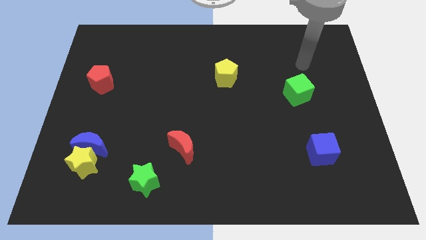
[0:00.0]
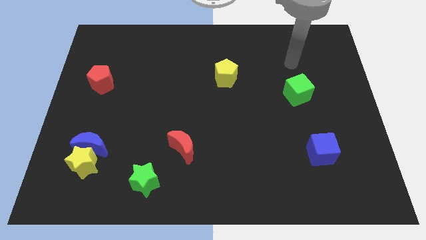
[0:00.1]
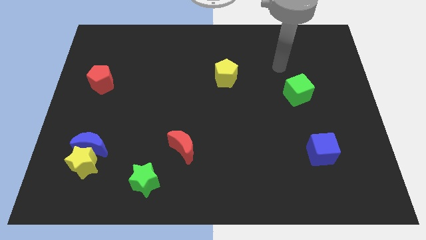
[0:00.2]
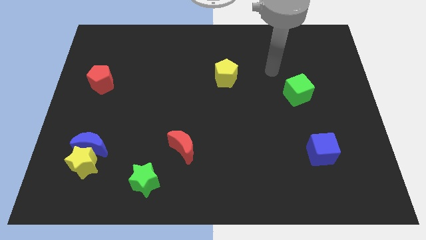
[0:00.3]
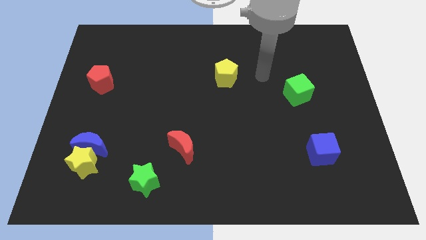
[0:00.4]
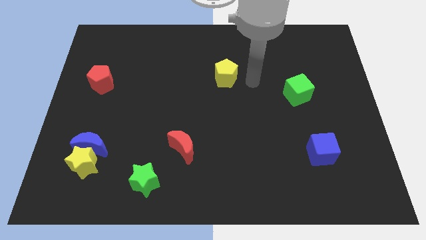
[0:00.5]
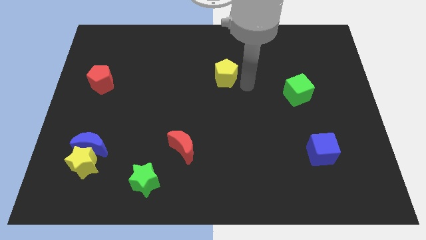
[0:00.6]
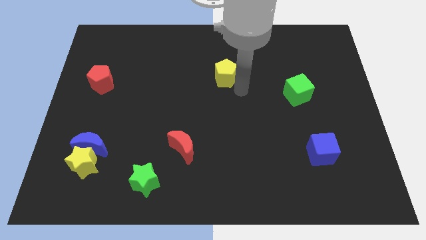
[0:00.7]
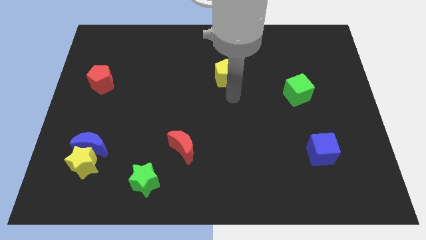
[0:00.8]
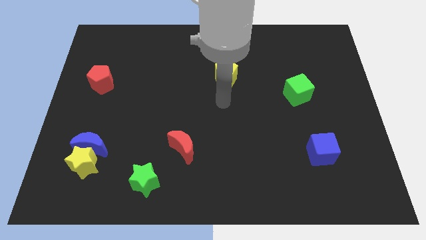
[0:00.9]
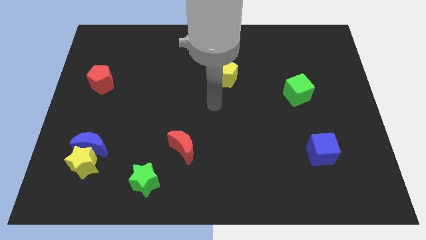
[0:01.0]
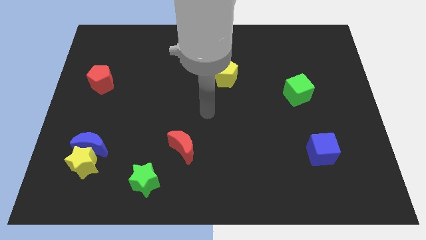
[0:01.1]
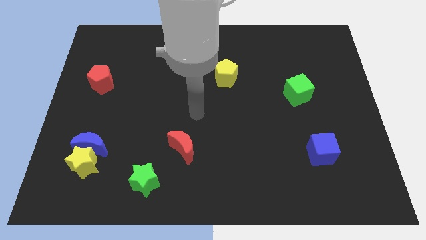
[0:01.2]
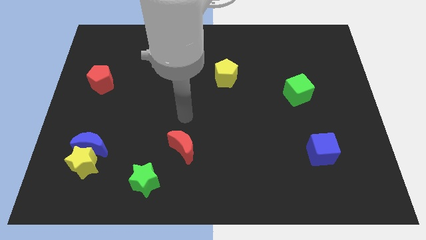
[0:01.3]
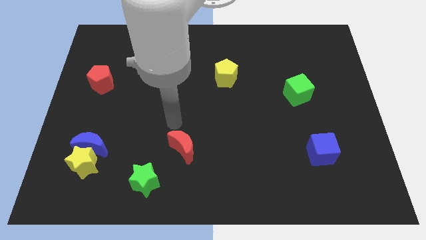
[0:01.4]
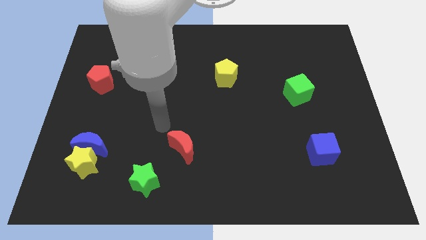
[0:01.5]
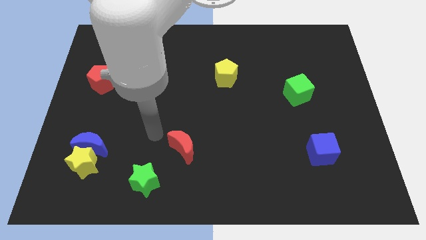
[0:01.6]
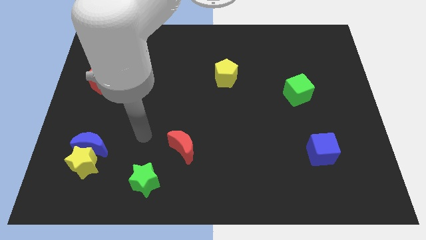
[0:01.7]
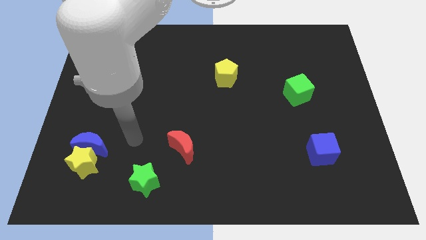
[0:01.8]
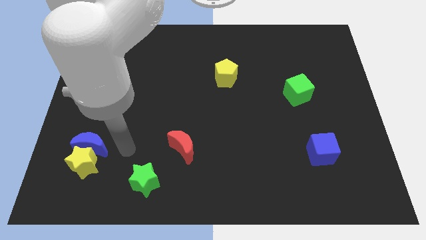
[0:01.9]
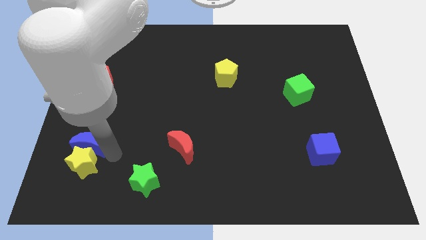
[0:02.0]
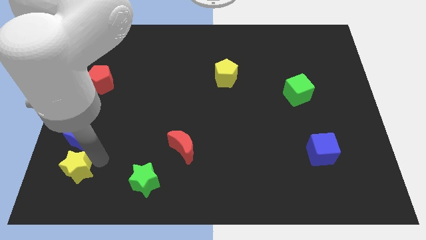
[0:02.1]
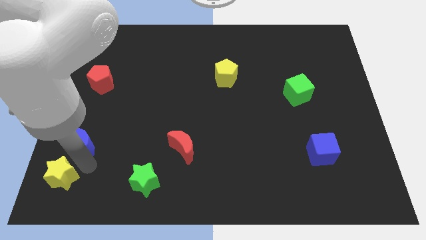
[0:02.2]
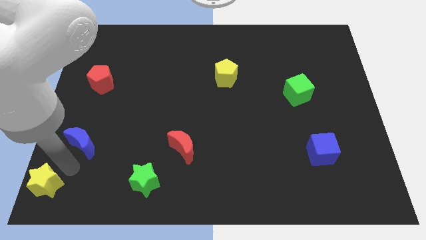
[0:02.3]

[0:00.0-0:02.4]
pull the blue moon apart from the yellow star

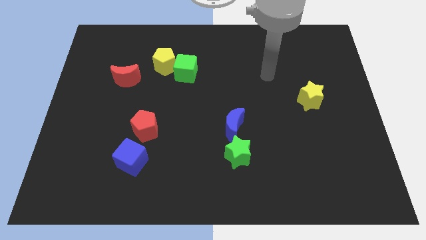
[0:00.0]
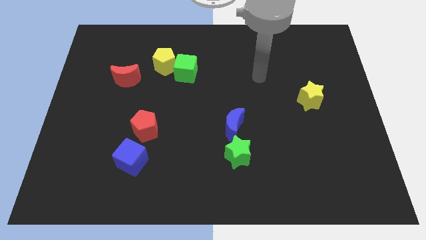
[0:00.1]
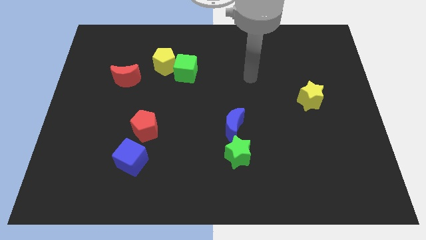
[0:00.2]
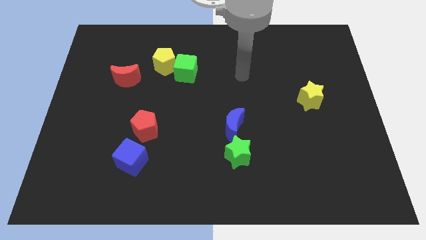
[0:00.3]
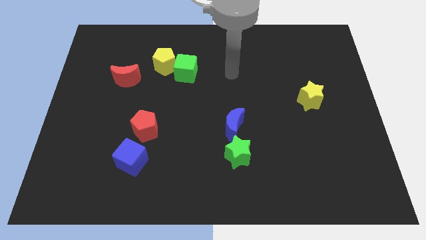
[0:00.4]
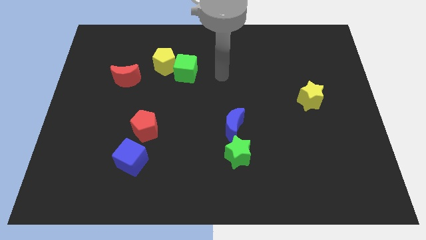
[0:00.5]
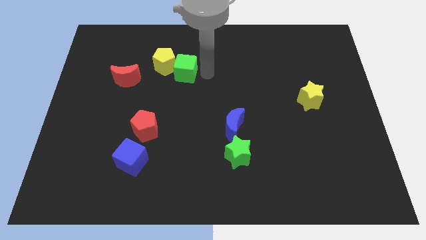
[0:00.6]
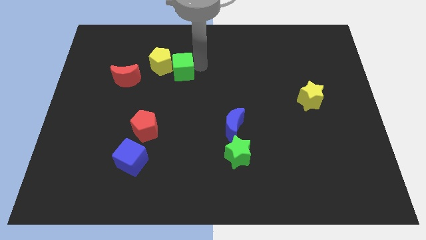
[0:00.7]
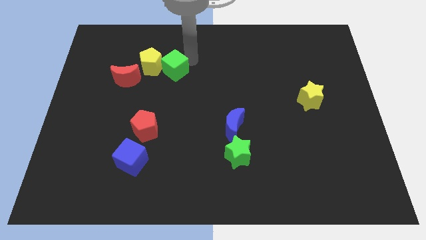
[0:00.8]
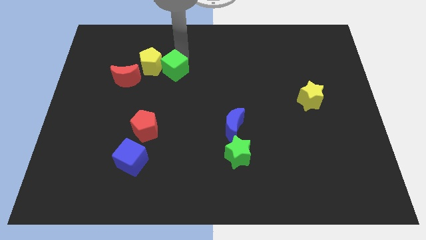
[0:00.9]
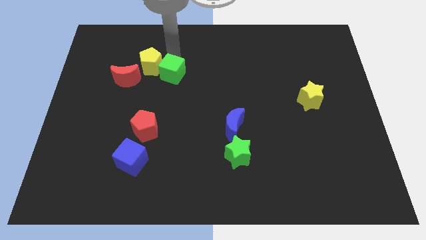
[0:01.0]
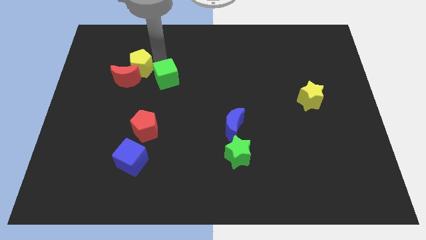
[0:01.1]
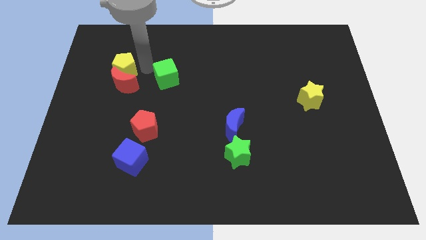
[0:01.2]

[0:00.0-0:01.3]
move the green cube away from the yellow pentagon

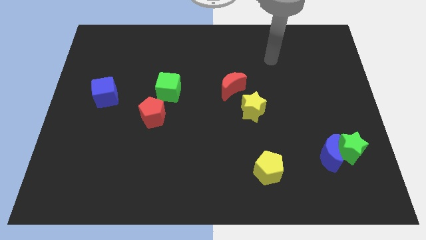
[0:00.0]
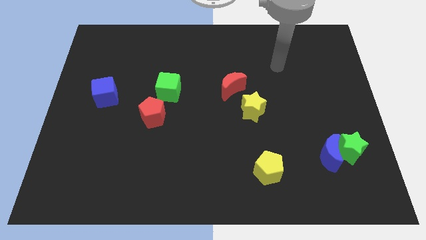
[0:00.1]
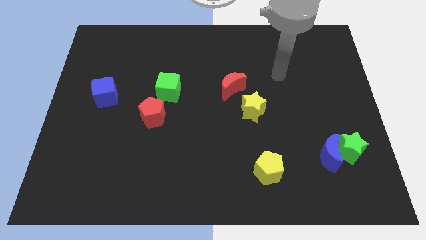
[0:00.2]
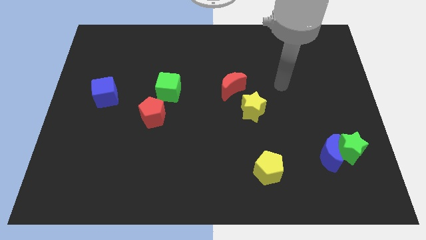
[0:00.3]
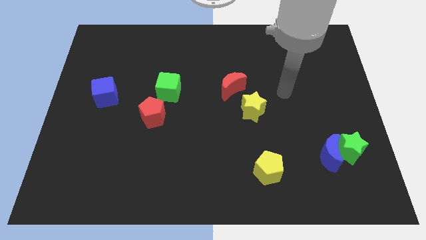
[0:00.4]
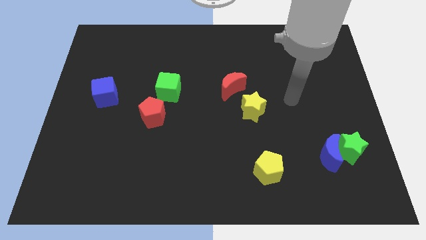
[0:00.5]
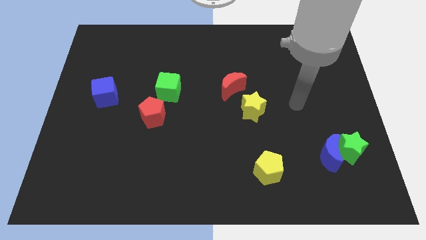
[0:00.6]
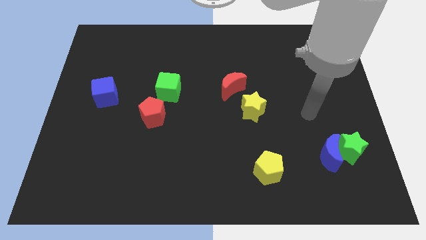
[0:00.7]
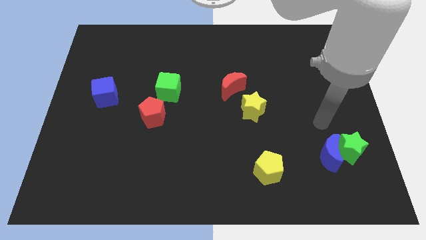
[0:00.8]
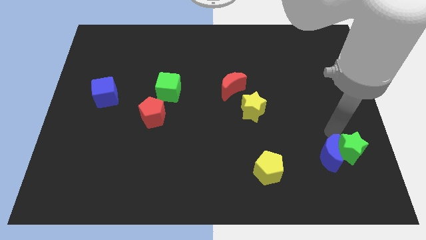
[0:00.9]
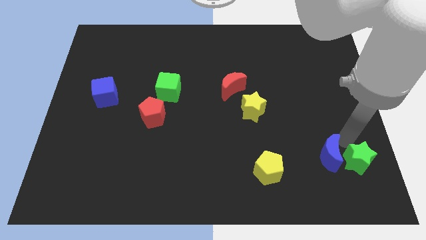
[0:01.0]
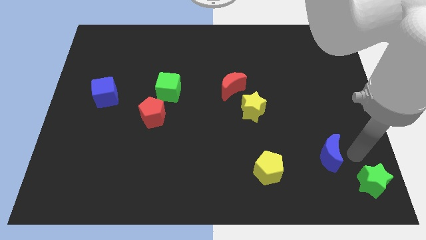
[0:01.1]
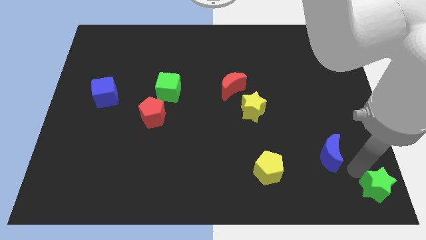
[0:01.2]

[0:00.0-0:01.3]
pull the blue moon apart from the green star

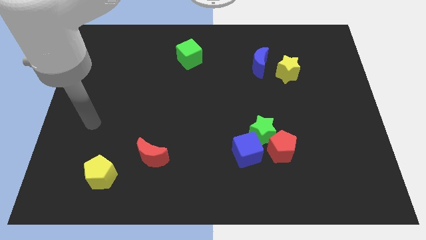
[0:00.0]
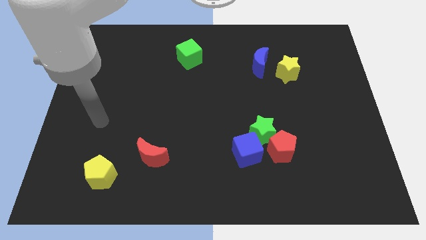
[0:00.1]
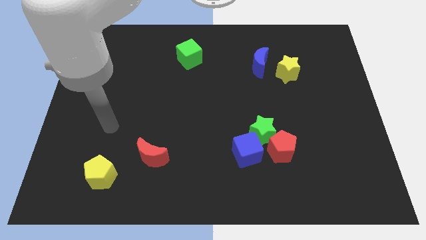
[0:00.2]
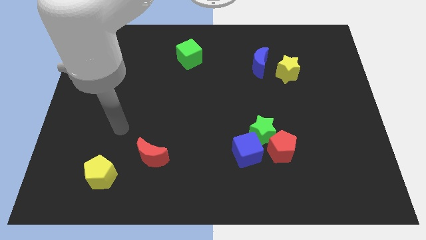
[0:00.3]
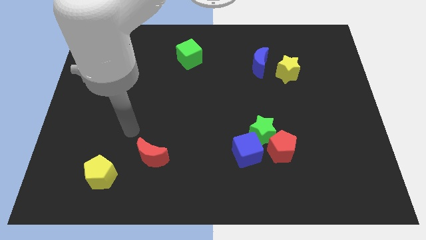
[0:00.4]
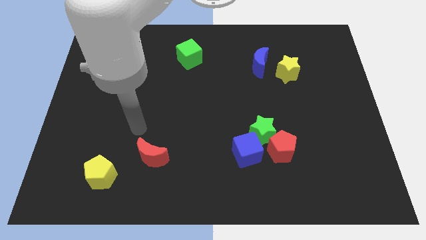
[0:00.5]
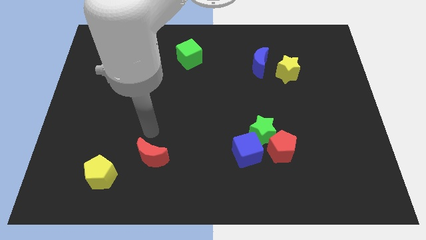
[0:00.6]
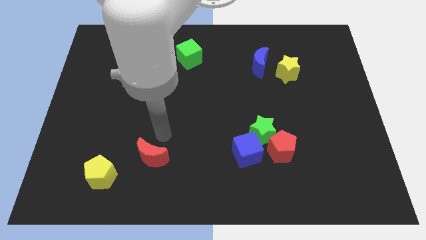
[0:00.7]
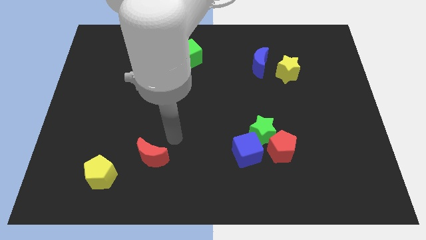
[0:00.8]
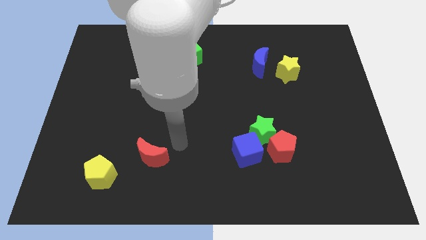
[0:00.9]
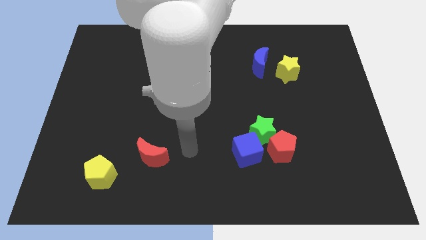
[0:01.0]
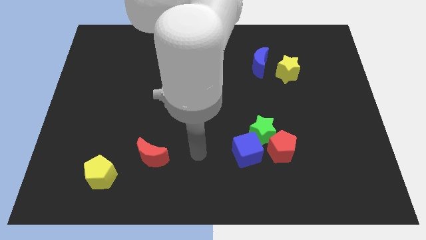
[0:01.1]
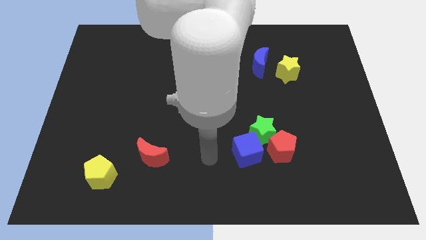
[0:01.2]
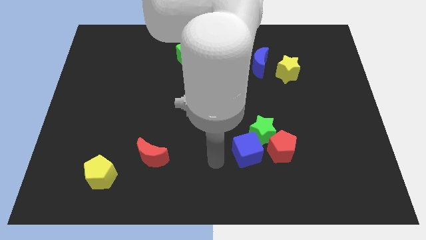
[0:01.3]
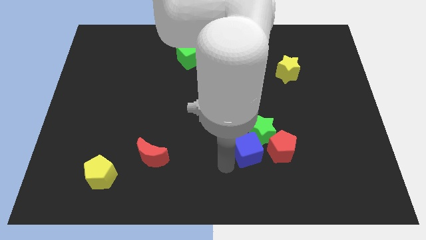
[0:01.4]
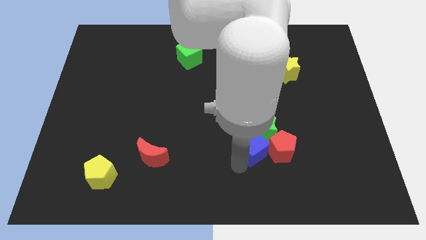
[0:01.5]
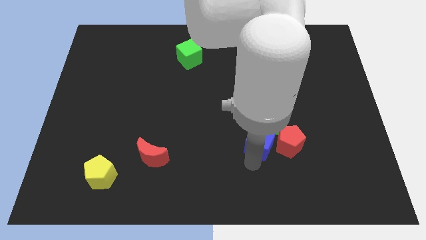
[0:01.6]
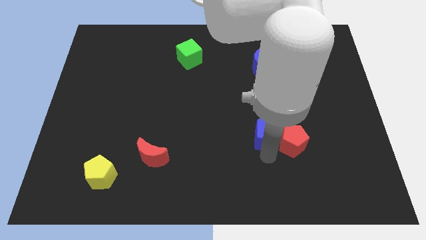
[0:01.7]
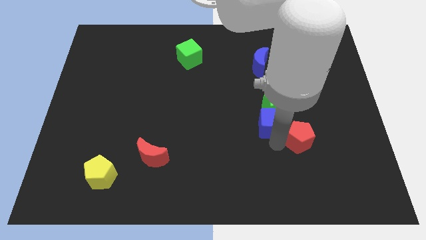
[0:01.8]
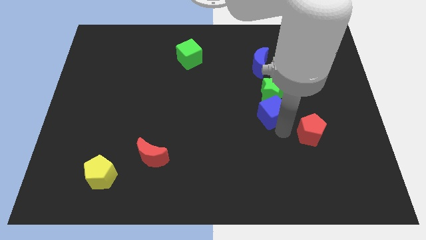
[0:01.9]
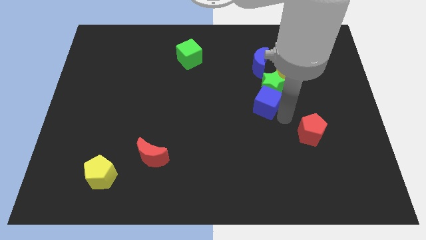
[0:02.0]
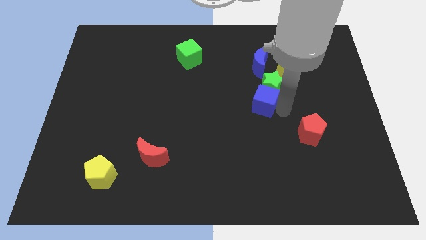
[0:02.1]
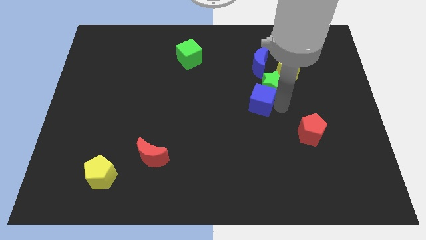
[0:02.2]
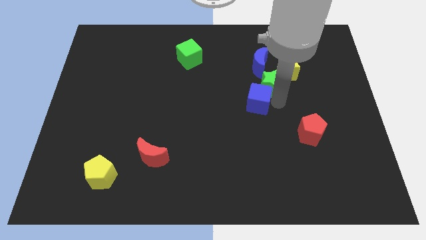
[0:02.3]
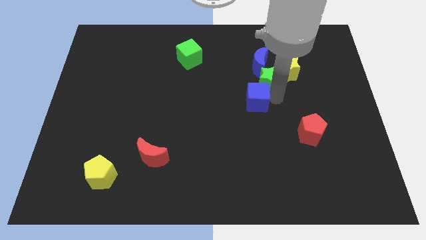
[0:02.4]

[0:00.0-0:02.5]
move the green star away from the red pentagon and blue cube

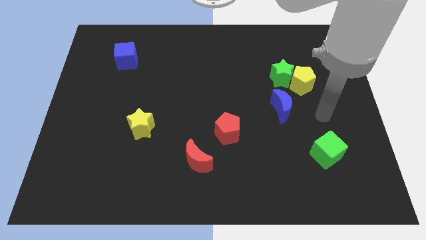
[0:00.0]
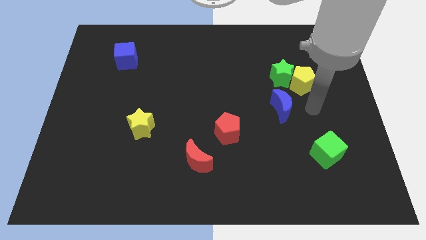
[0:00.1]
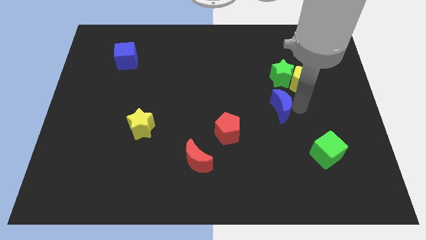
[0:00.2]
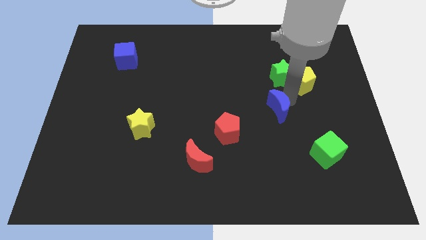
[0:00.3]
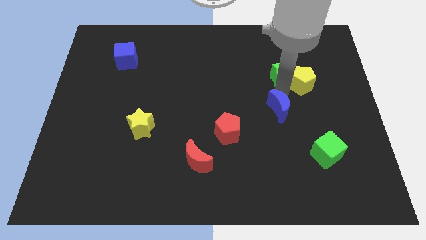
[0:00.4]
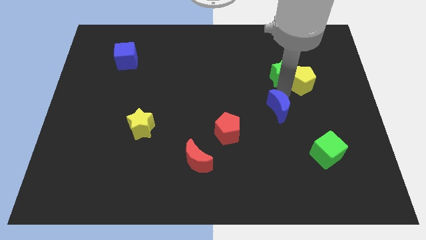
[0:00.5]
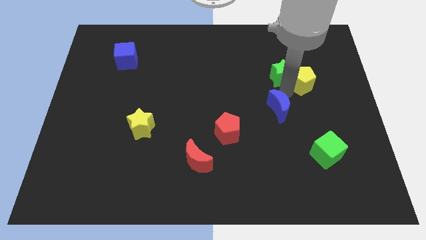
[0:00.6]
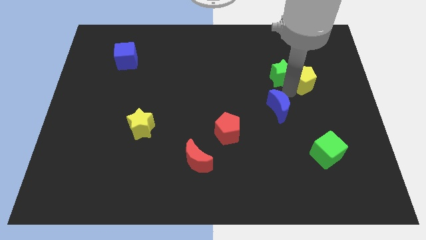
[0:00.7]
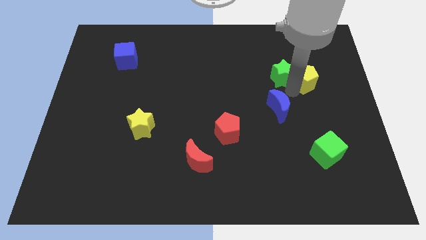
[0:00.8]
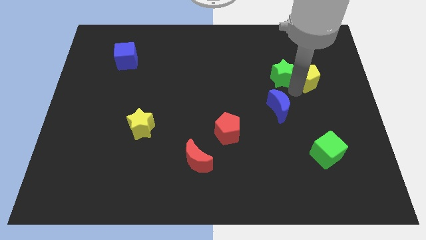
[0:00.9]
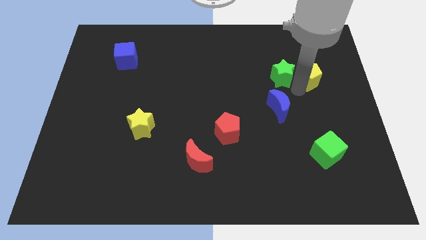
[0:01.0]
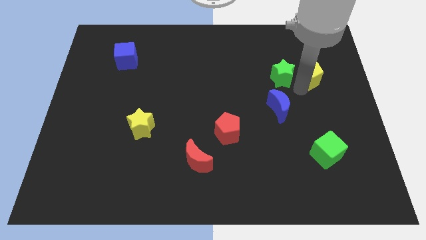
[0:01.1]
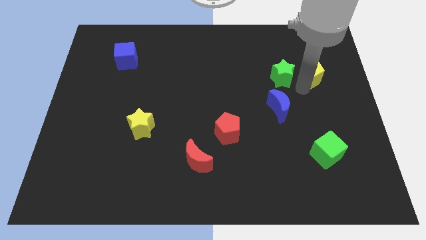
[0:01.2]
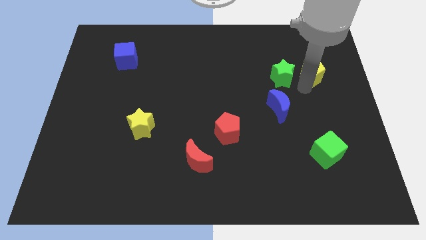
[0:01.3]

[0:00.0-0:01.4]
move the yellow pentagon away from the green star and blue moon

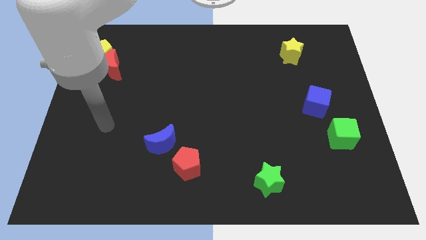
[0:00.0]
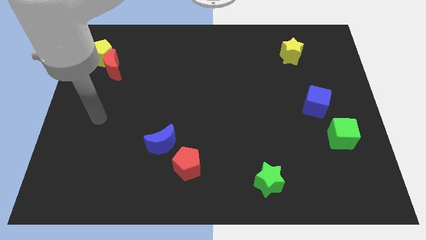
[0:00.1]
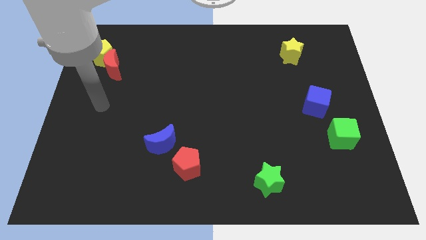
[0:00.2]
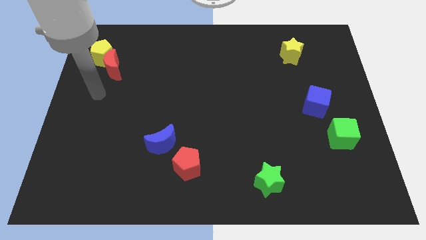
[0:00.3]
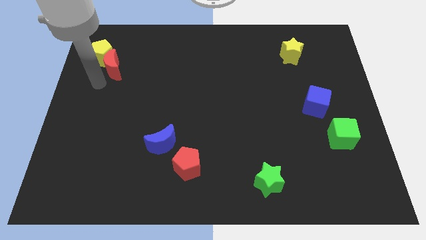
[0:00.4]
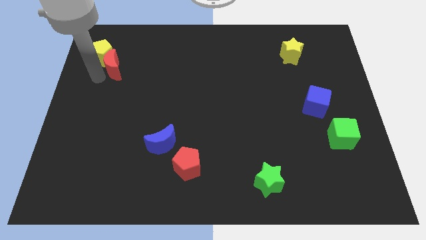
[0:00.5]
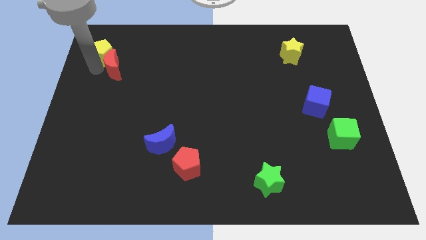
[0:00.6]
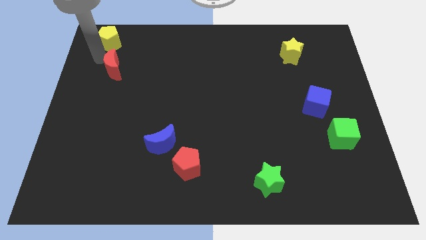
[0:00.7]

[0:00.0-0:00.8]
pull the red moon apart from the yellow pentagon
